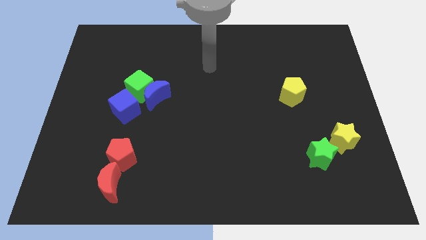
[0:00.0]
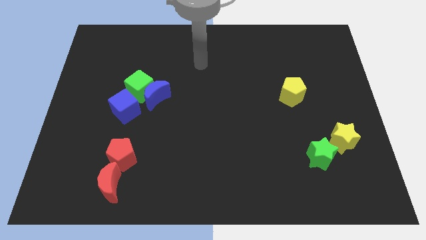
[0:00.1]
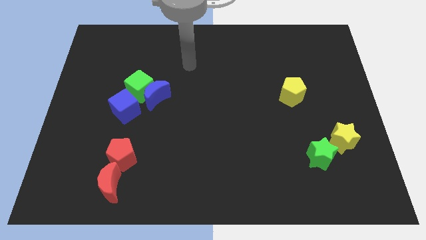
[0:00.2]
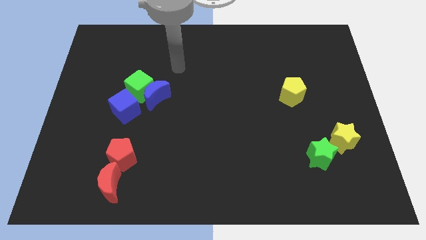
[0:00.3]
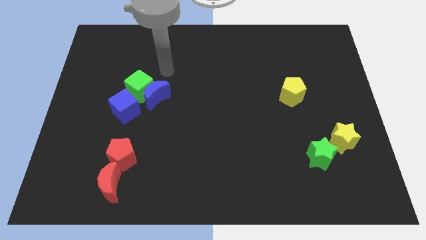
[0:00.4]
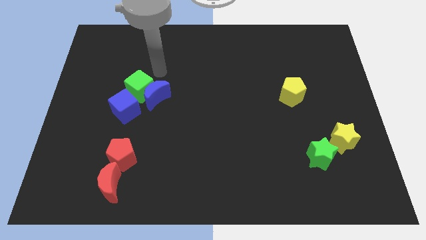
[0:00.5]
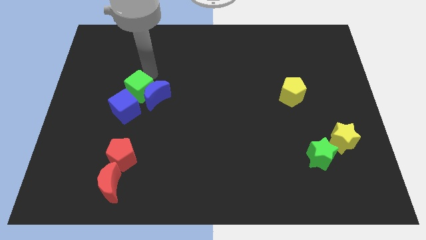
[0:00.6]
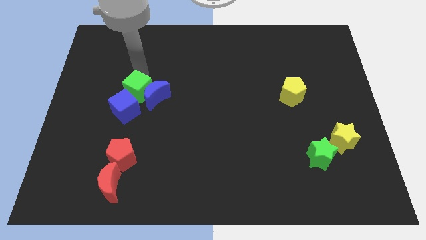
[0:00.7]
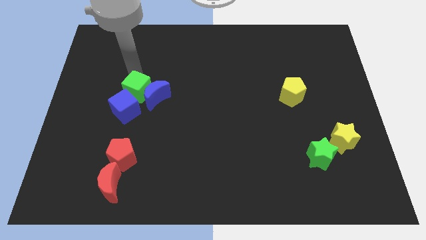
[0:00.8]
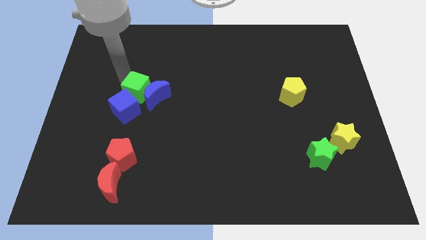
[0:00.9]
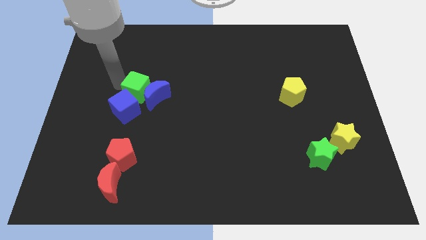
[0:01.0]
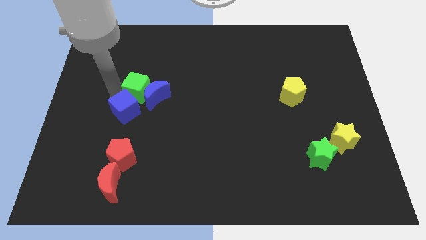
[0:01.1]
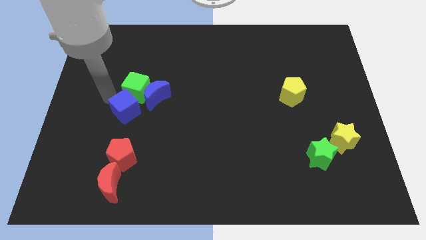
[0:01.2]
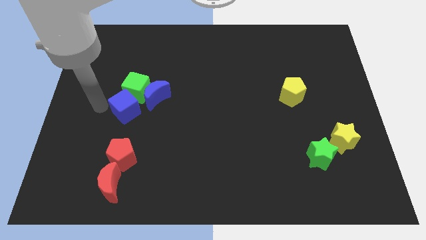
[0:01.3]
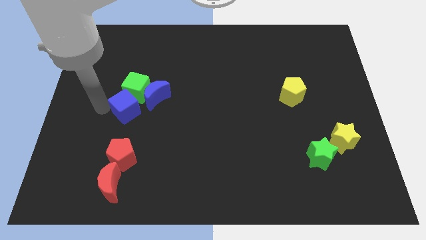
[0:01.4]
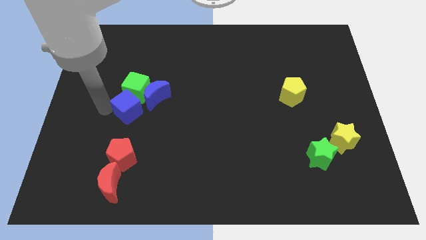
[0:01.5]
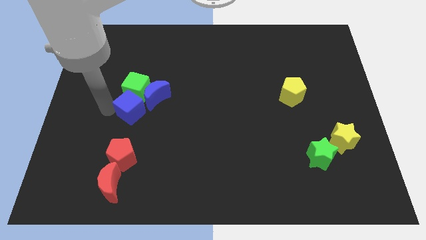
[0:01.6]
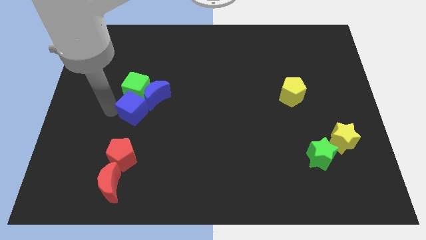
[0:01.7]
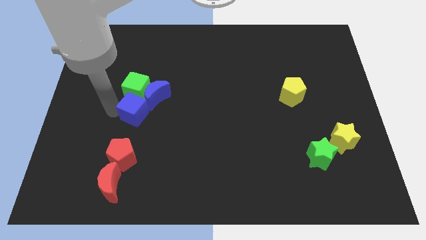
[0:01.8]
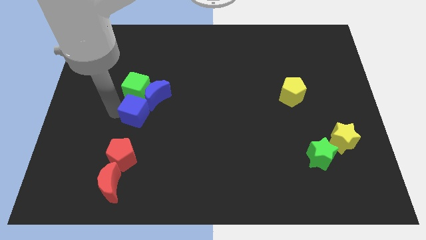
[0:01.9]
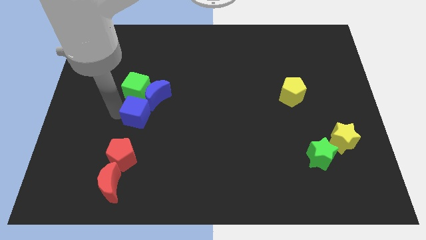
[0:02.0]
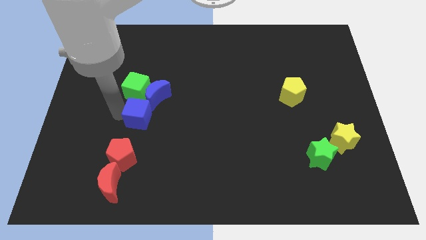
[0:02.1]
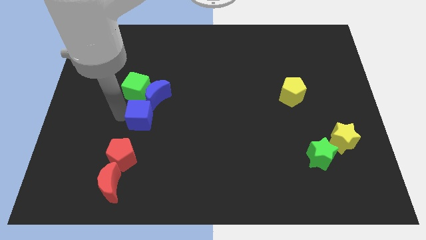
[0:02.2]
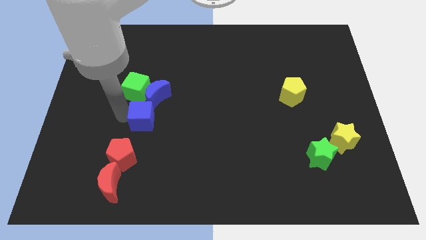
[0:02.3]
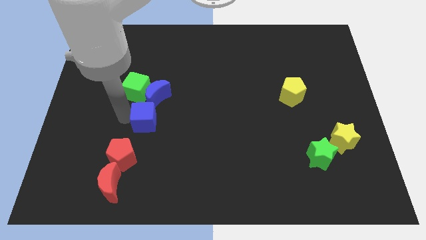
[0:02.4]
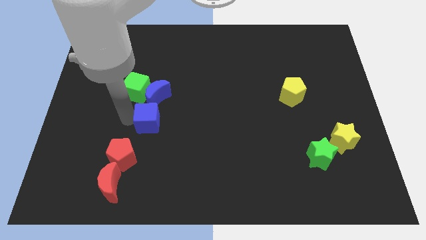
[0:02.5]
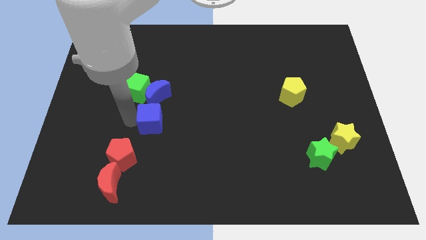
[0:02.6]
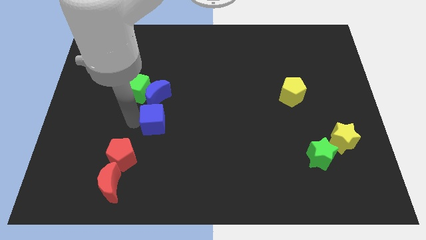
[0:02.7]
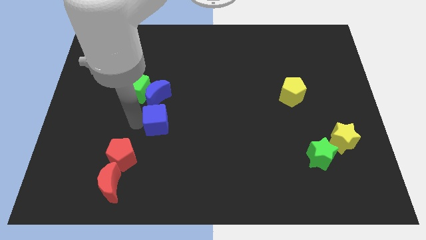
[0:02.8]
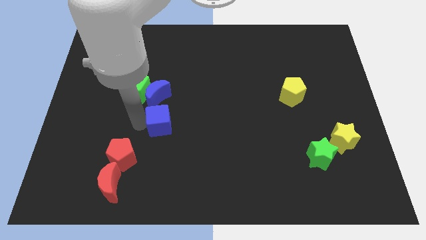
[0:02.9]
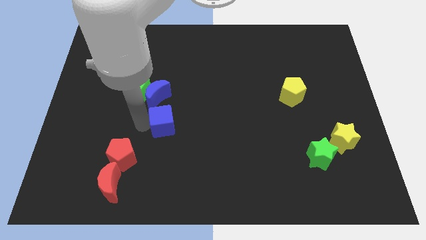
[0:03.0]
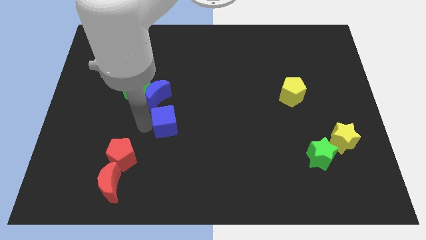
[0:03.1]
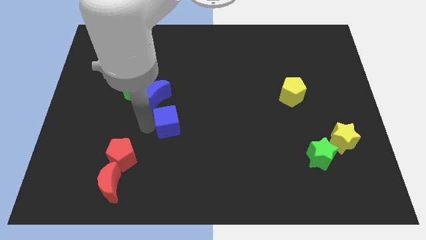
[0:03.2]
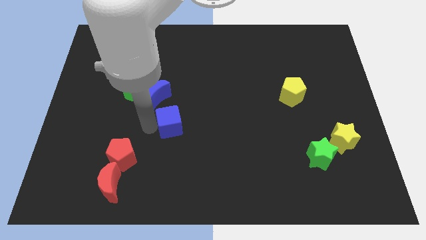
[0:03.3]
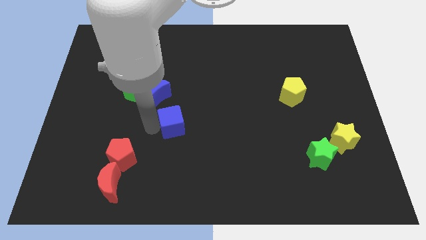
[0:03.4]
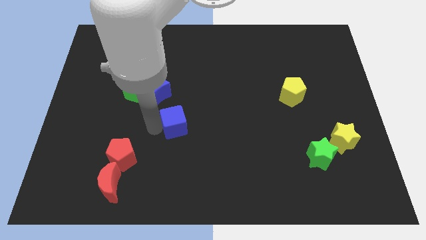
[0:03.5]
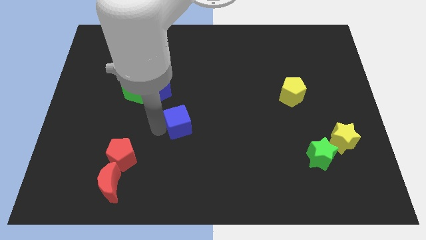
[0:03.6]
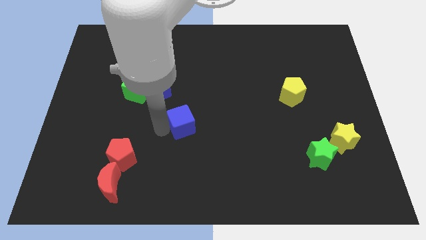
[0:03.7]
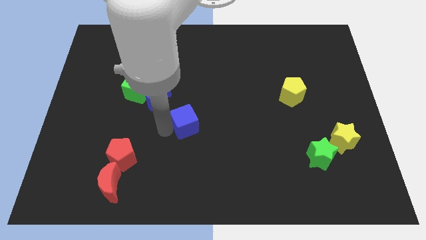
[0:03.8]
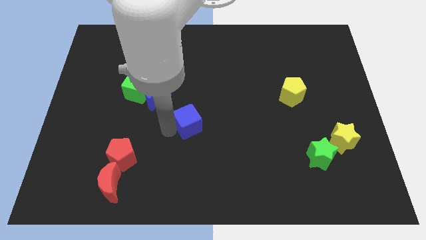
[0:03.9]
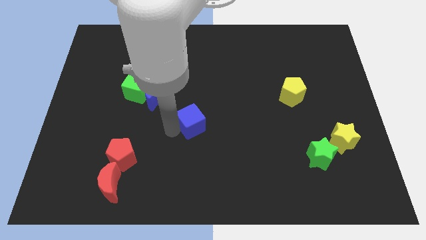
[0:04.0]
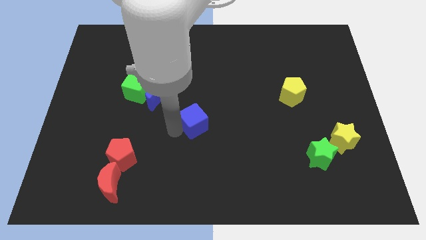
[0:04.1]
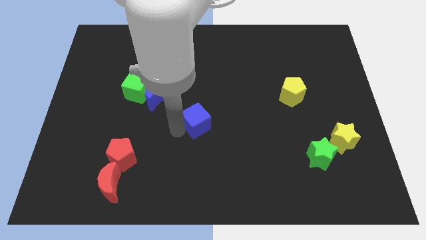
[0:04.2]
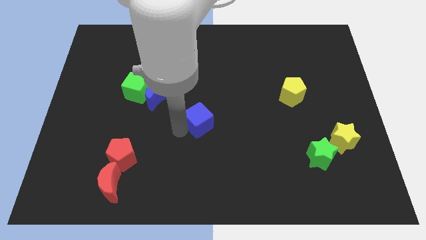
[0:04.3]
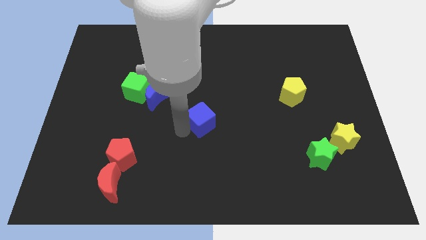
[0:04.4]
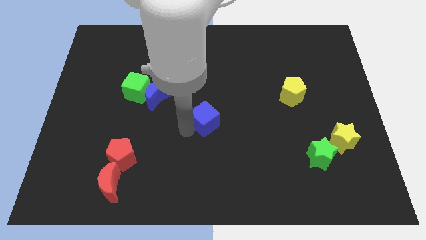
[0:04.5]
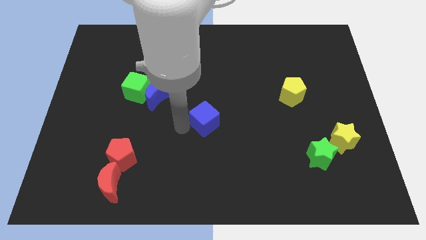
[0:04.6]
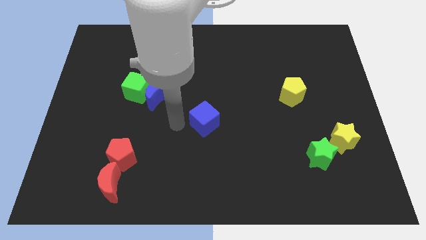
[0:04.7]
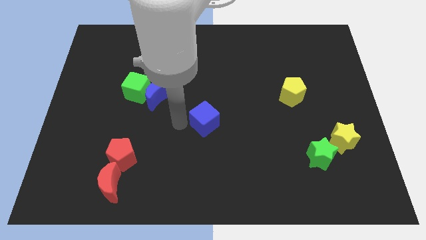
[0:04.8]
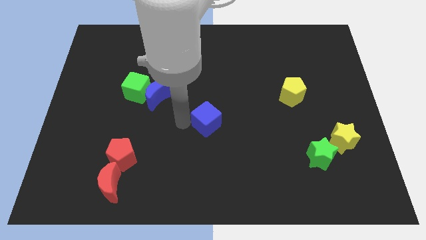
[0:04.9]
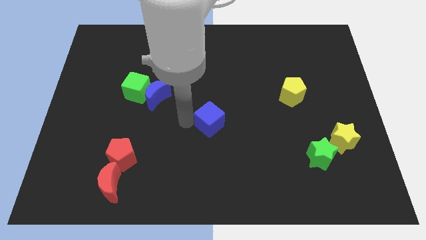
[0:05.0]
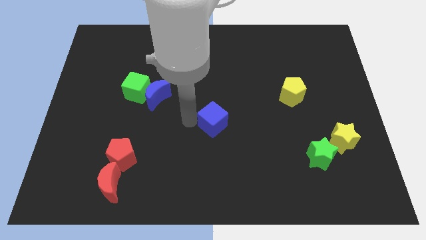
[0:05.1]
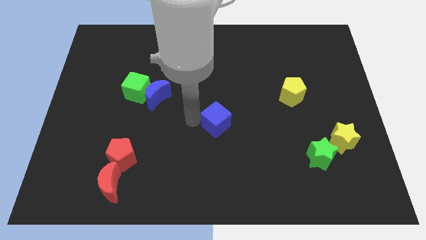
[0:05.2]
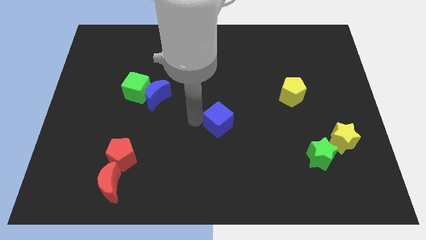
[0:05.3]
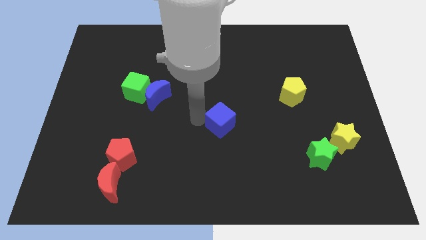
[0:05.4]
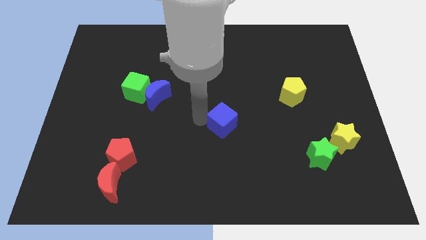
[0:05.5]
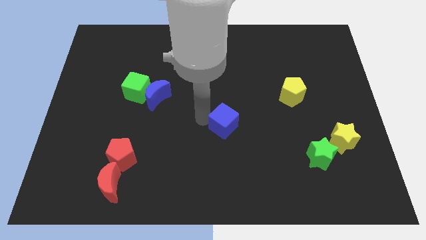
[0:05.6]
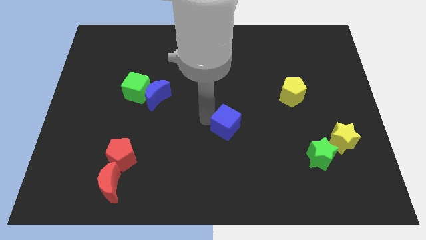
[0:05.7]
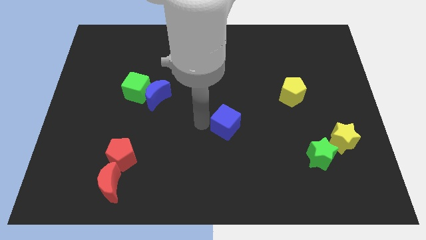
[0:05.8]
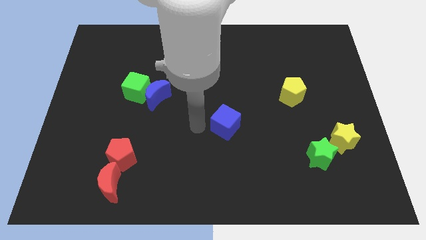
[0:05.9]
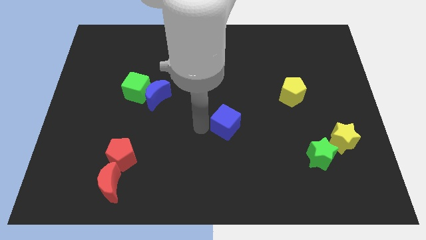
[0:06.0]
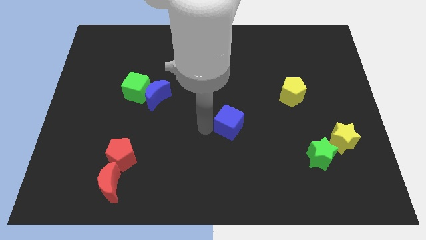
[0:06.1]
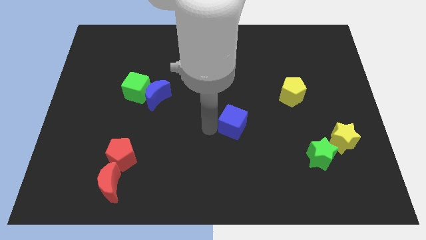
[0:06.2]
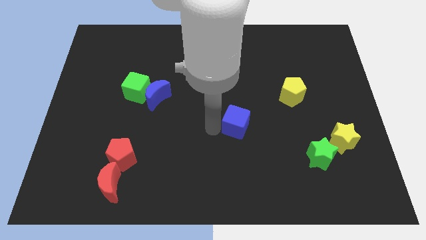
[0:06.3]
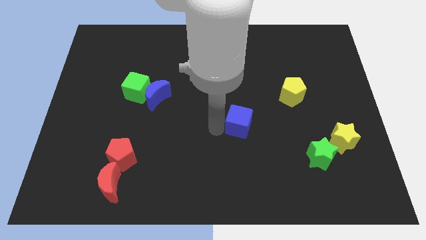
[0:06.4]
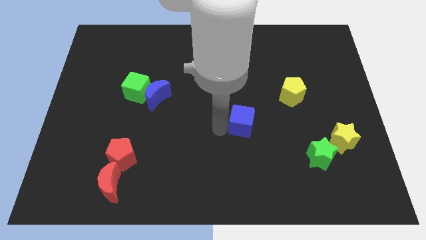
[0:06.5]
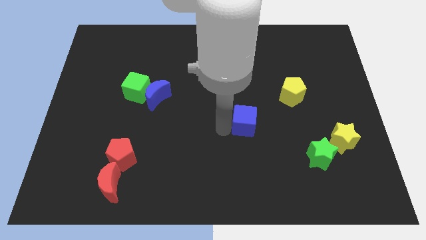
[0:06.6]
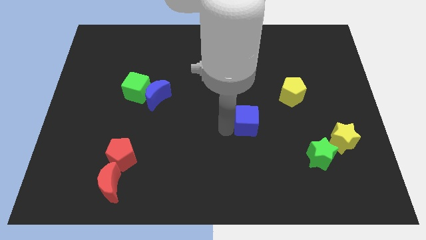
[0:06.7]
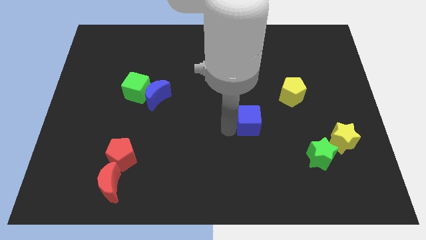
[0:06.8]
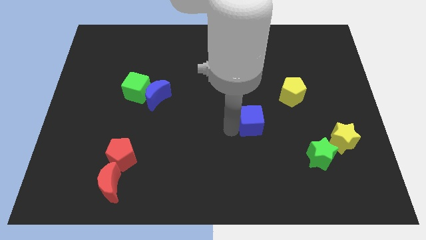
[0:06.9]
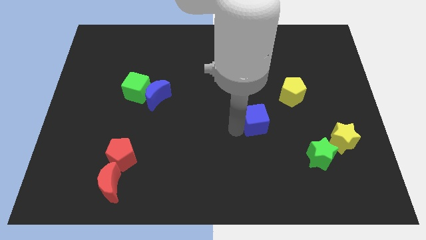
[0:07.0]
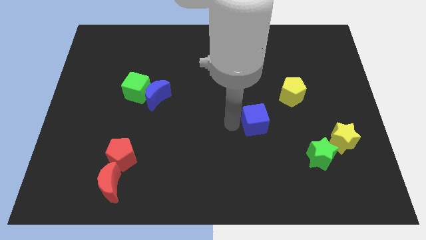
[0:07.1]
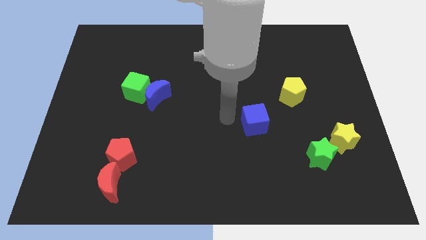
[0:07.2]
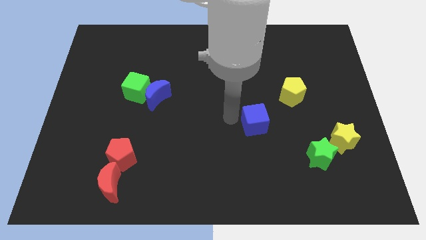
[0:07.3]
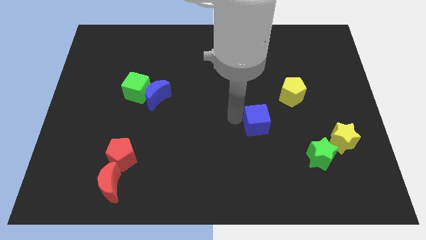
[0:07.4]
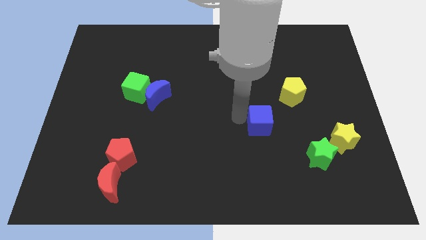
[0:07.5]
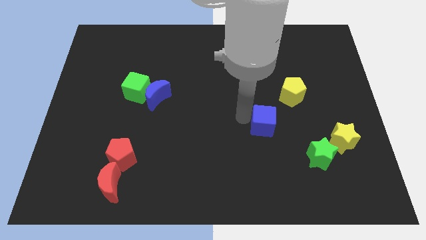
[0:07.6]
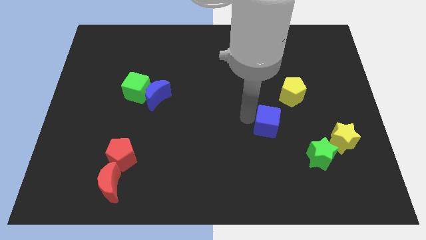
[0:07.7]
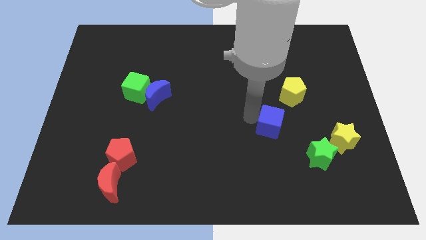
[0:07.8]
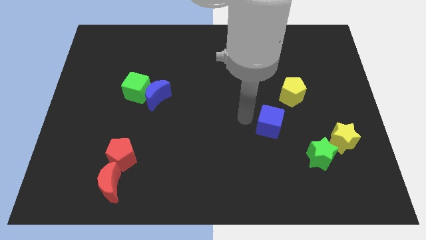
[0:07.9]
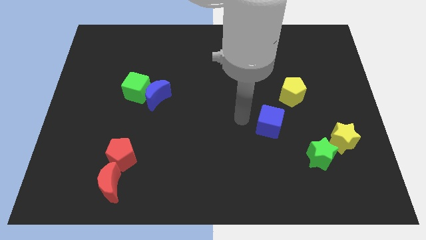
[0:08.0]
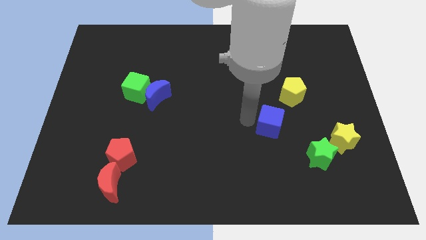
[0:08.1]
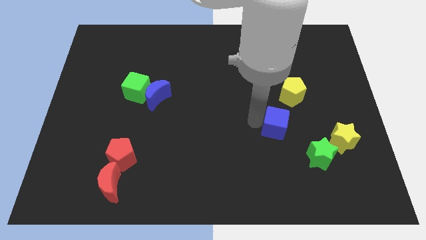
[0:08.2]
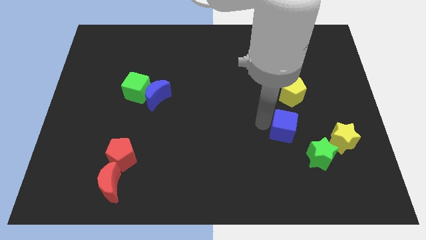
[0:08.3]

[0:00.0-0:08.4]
put the blue cube below the yellow pentagon
